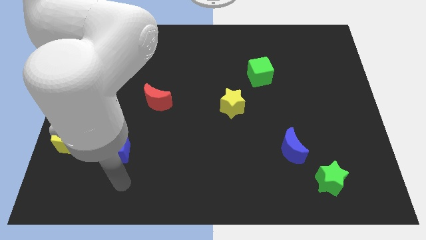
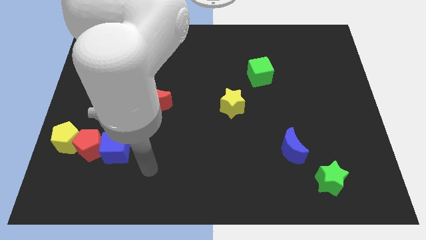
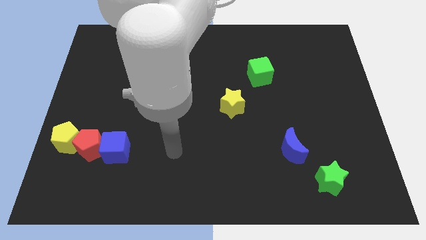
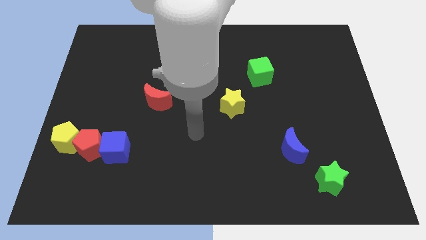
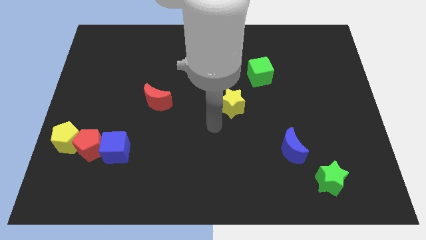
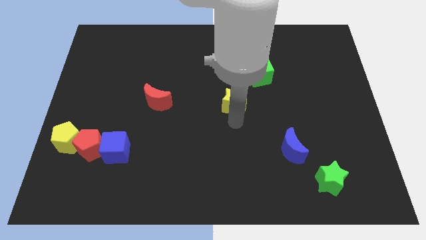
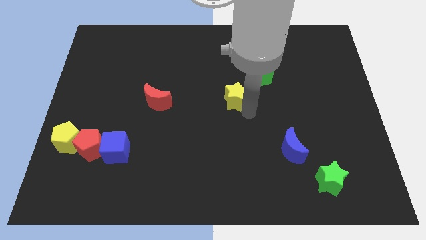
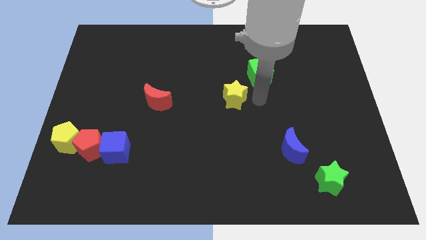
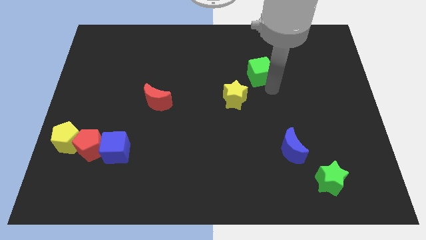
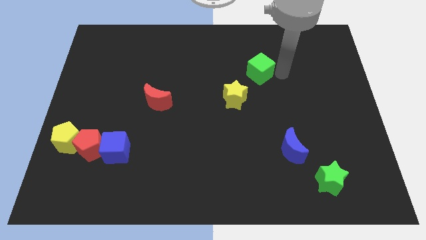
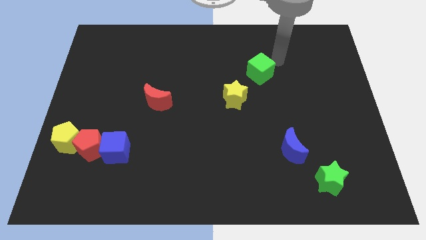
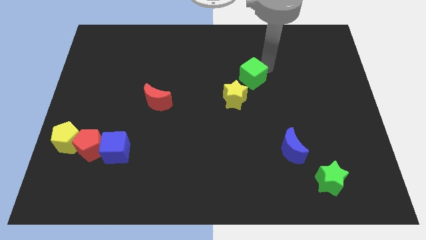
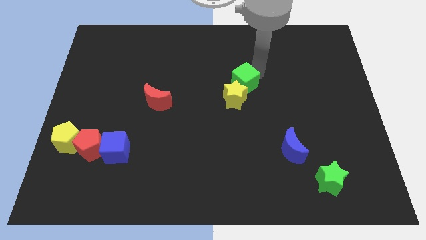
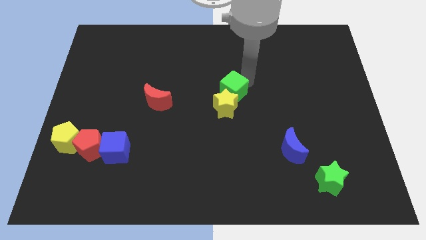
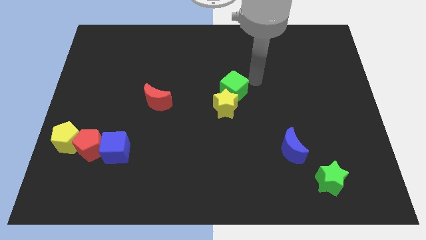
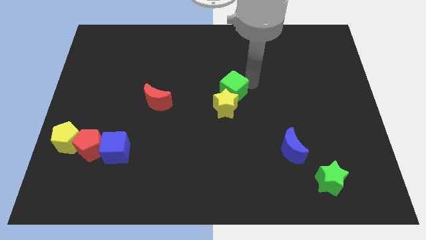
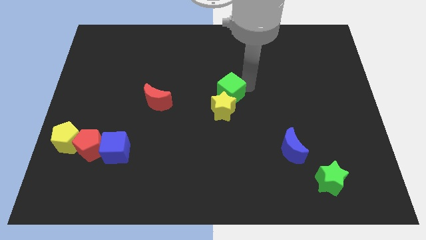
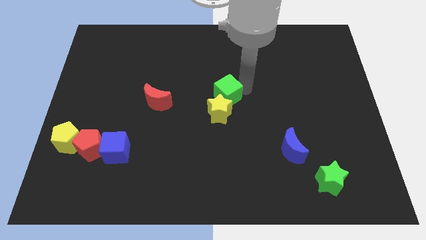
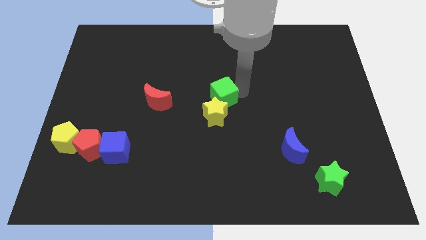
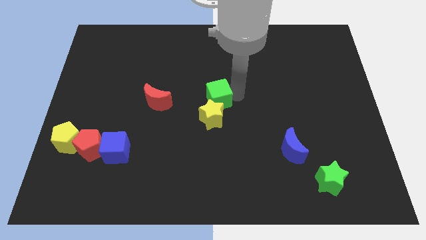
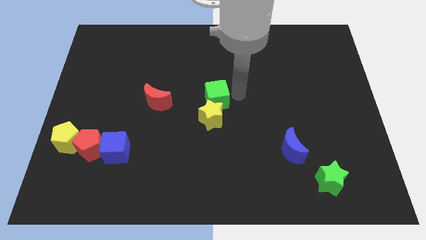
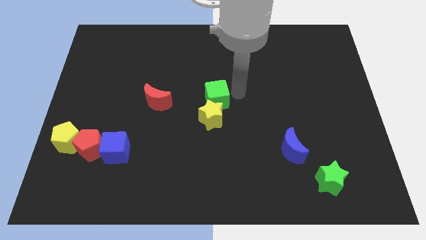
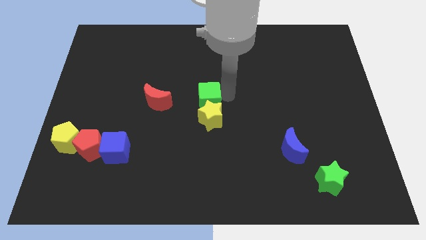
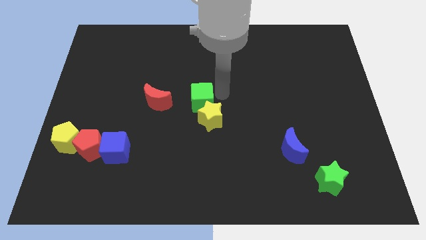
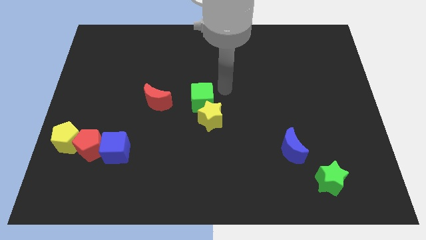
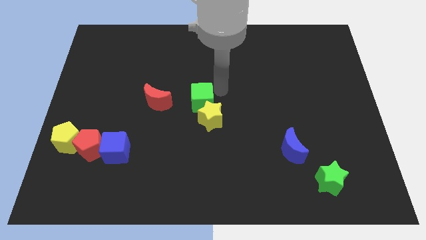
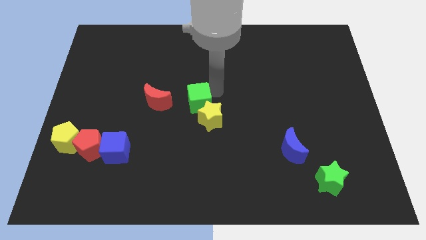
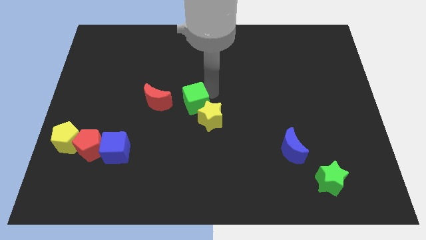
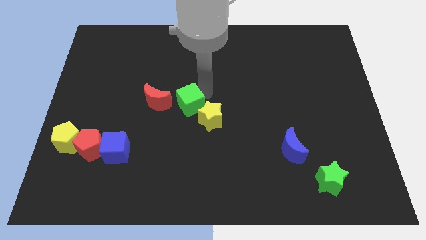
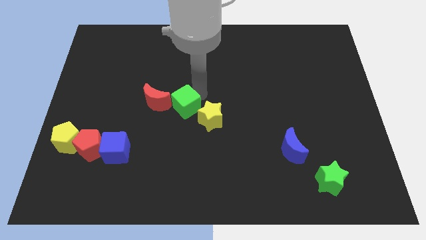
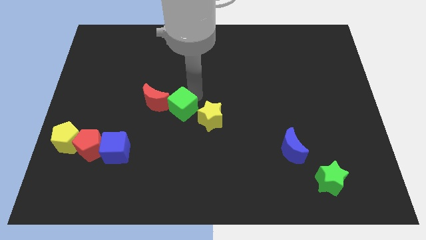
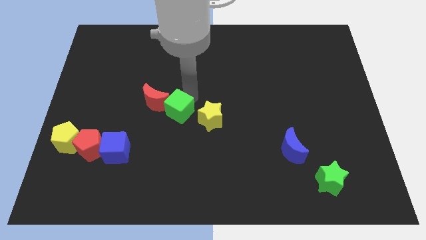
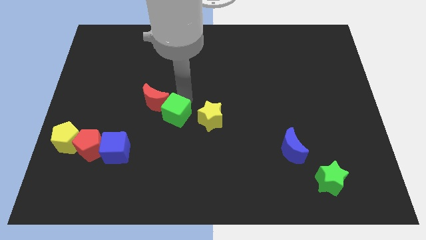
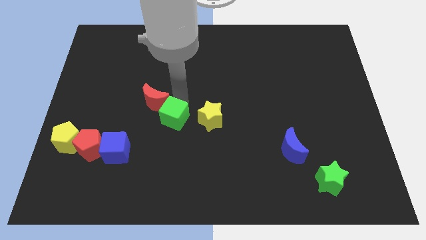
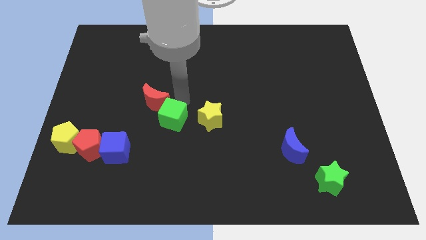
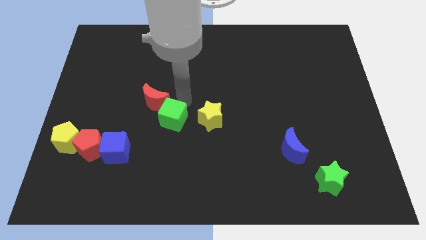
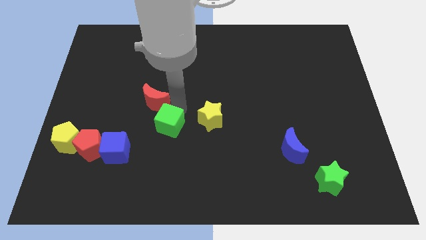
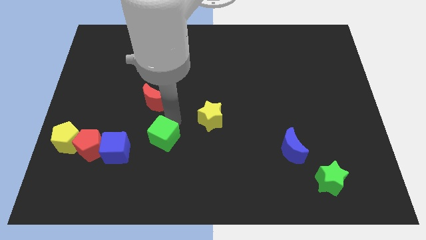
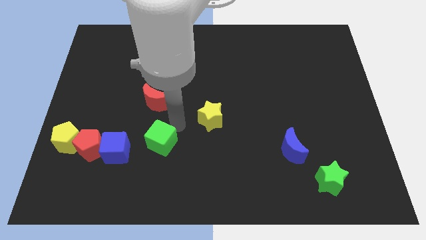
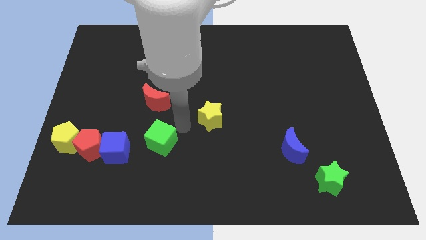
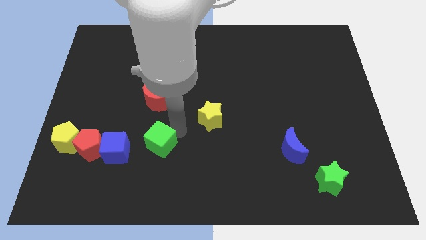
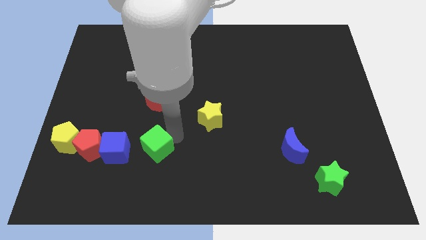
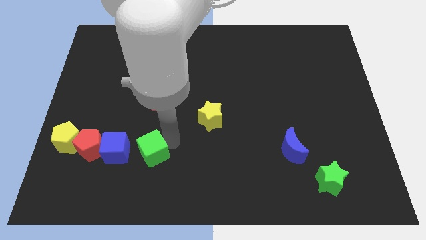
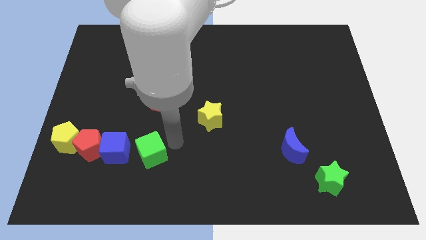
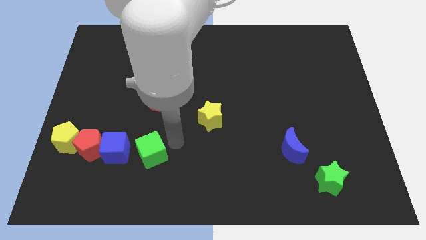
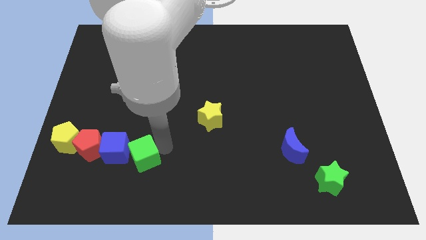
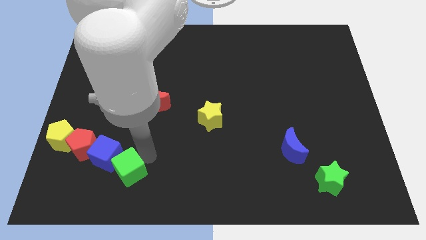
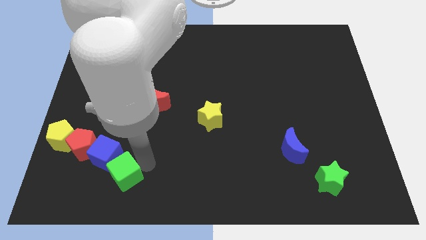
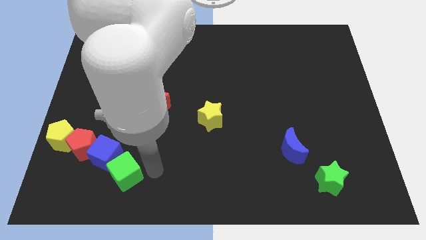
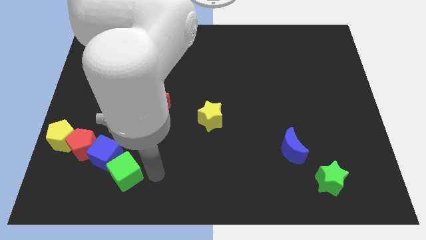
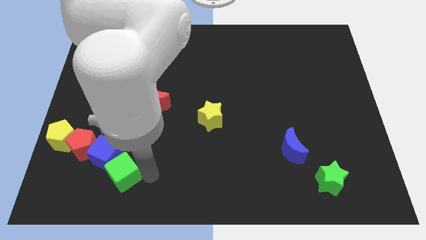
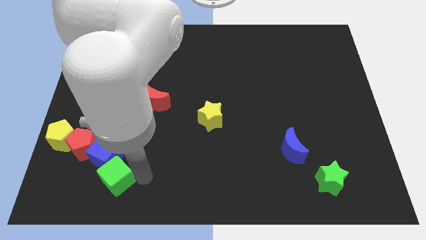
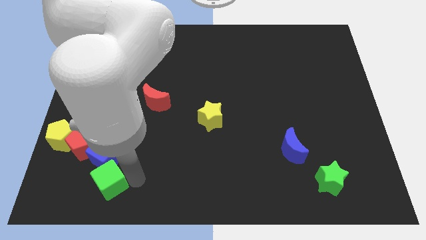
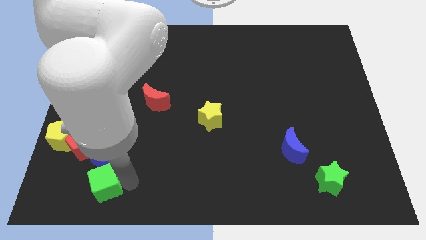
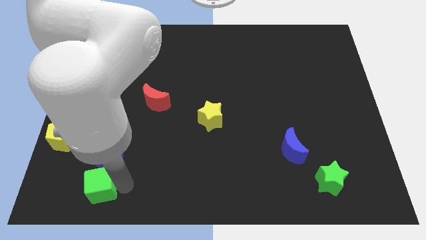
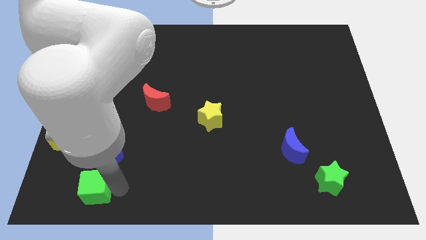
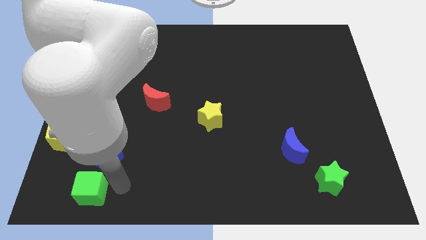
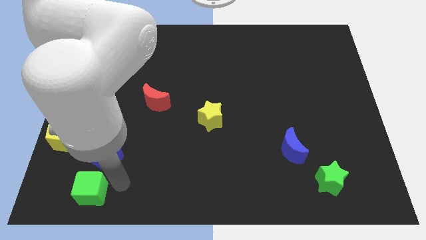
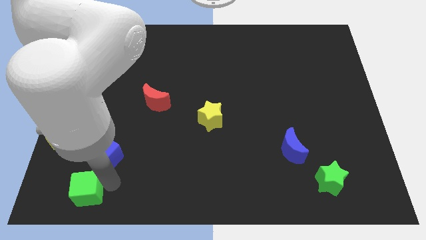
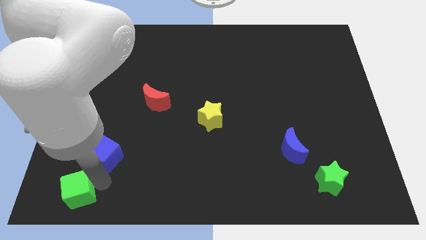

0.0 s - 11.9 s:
move the green cube to the lower left corner

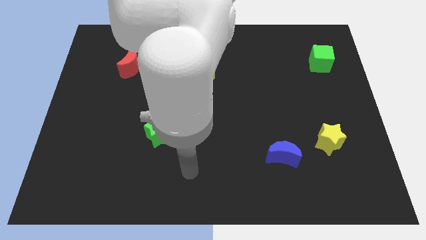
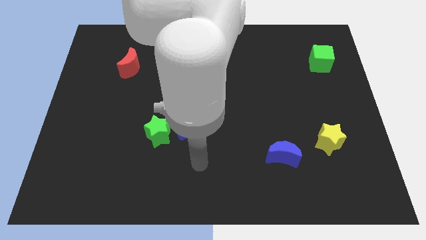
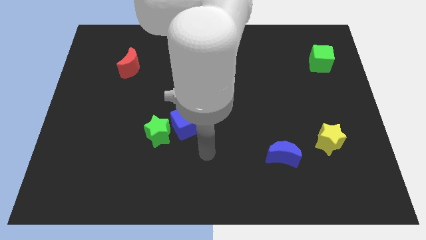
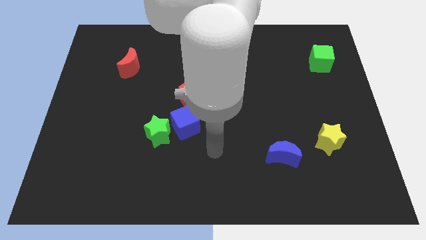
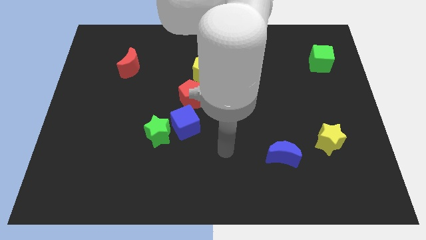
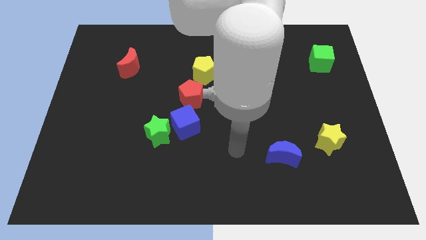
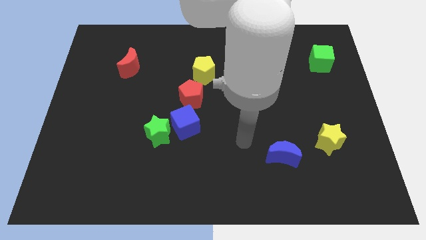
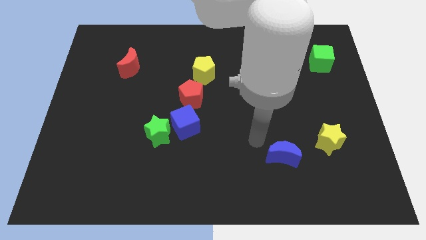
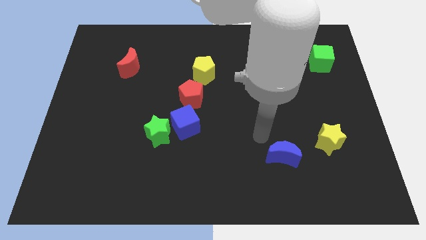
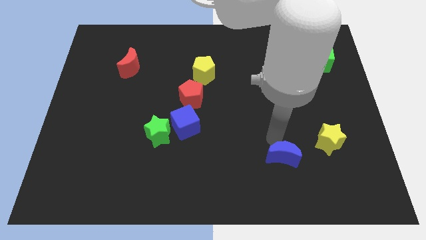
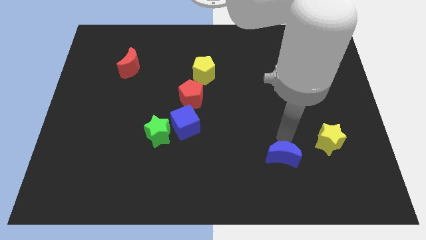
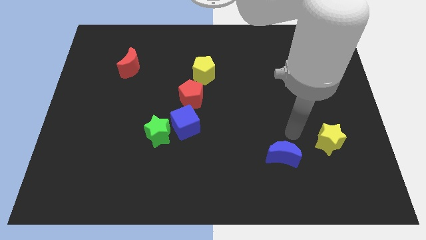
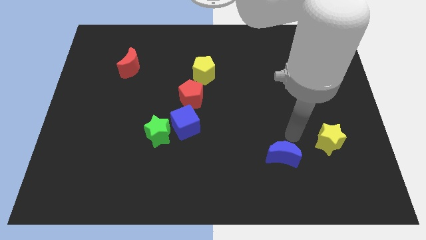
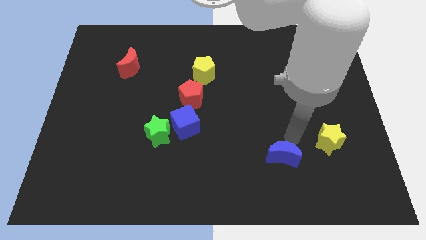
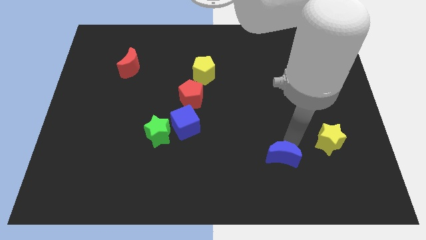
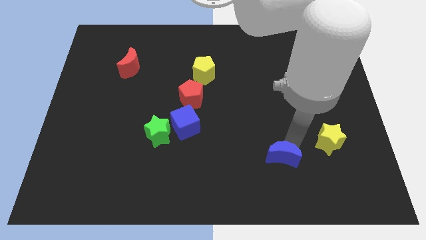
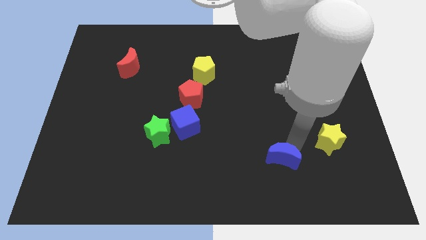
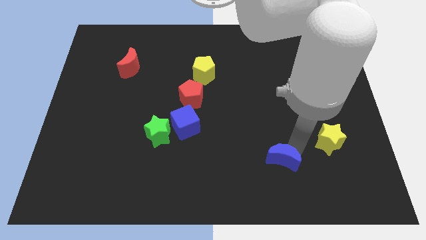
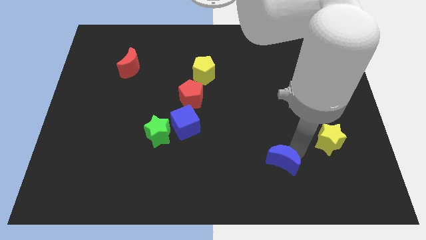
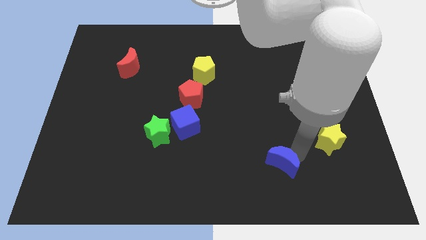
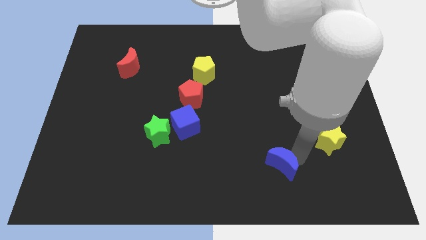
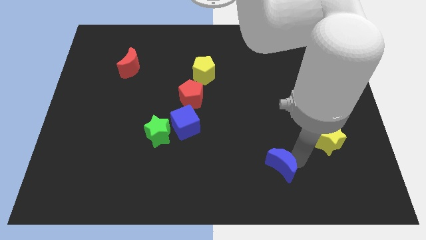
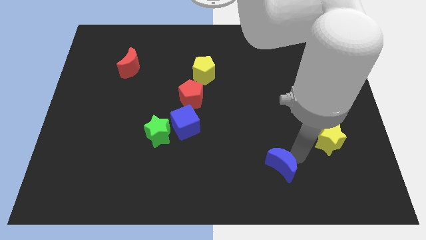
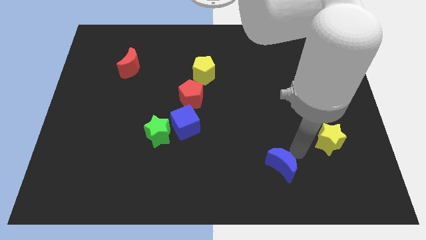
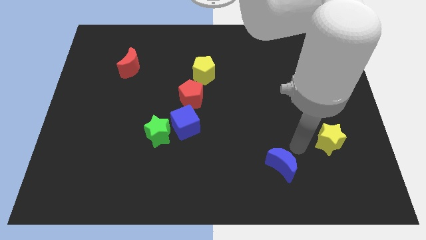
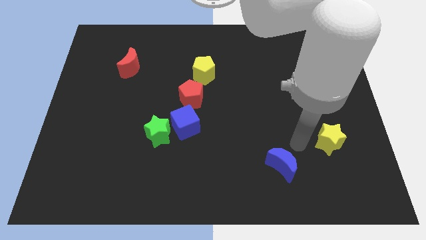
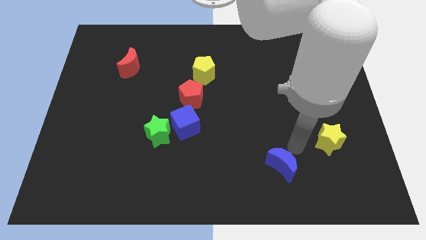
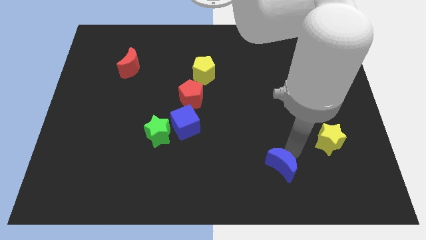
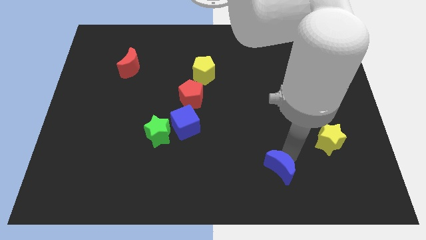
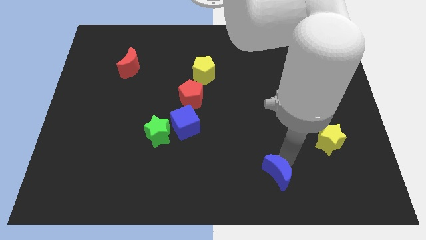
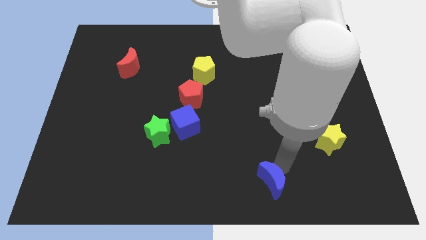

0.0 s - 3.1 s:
put the blue moon to the bottom side
